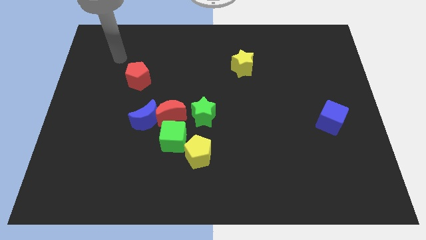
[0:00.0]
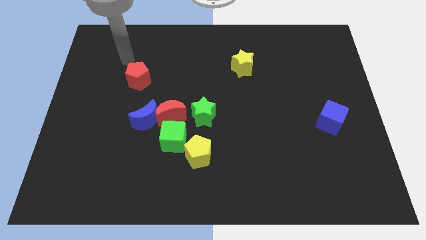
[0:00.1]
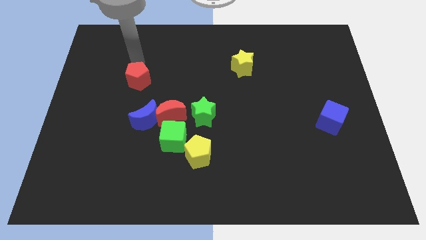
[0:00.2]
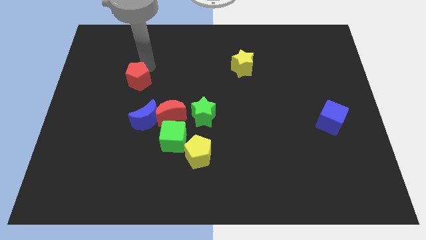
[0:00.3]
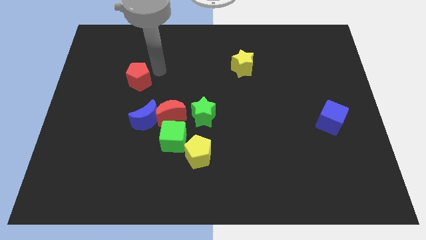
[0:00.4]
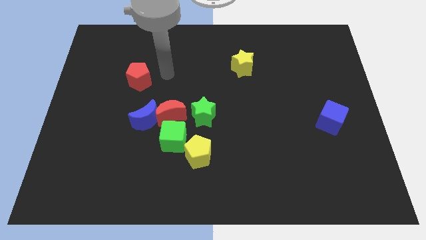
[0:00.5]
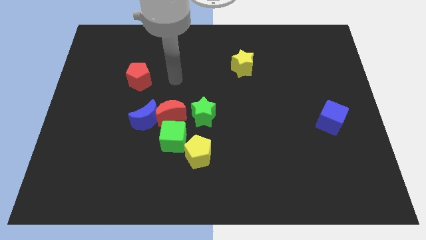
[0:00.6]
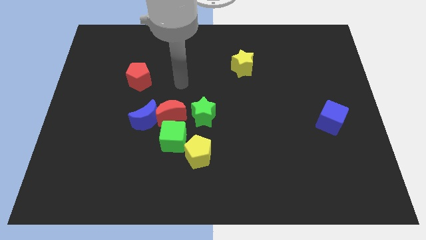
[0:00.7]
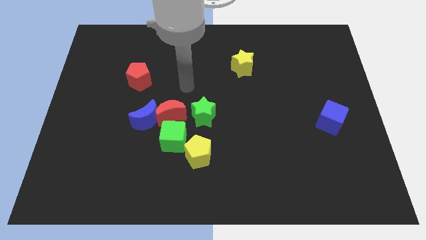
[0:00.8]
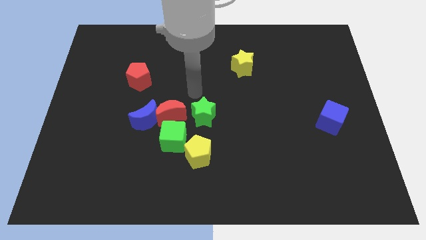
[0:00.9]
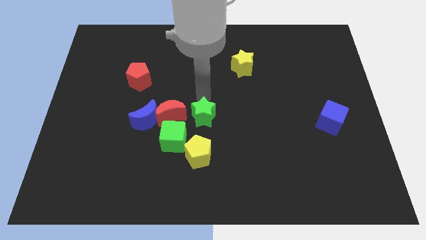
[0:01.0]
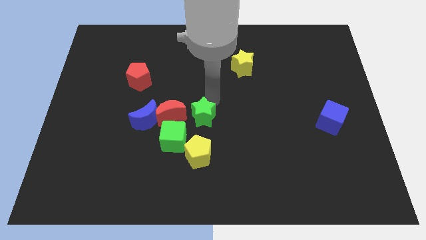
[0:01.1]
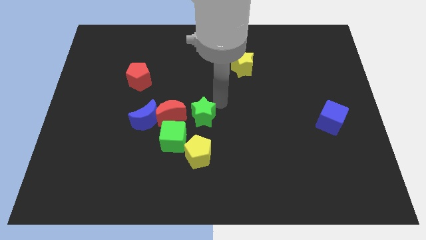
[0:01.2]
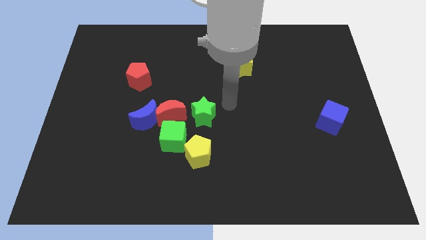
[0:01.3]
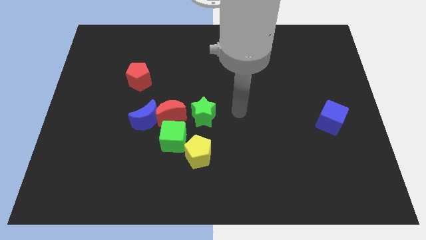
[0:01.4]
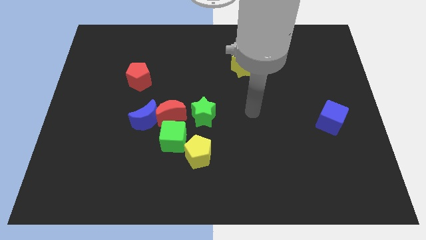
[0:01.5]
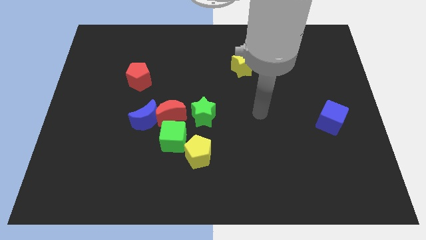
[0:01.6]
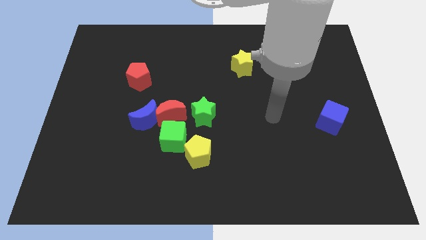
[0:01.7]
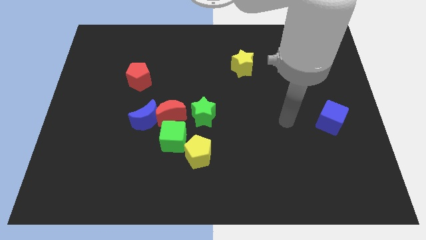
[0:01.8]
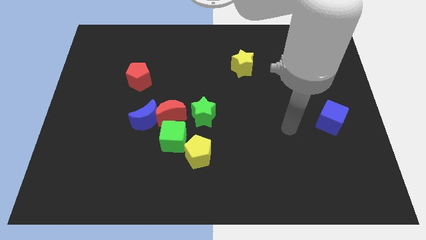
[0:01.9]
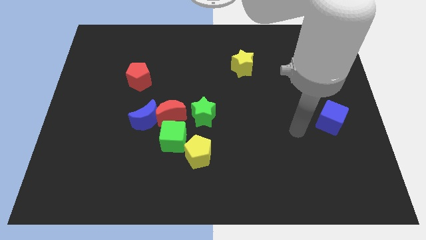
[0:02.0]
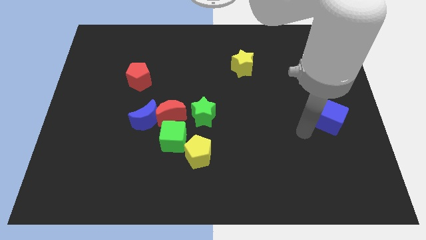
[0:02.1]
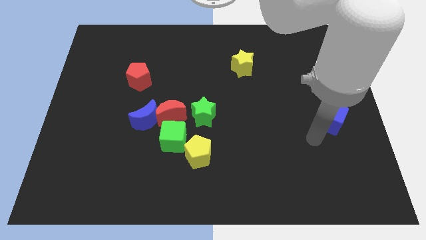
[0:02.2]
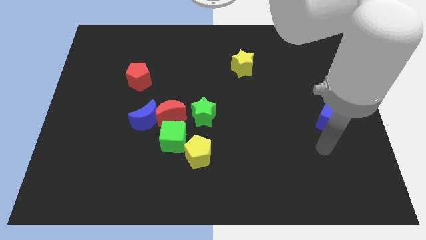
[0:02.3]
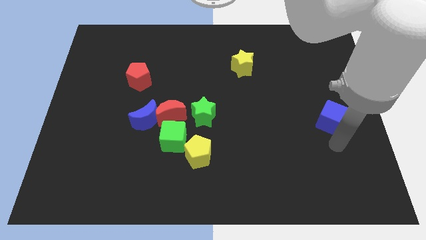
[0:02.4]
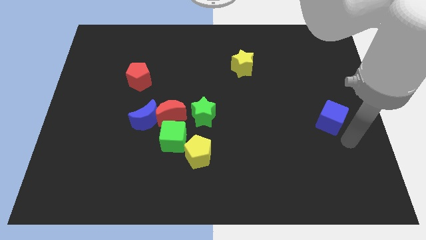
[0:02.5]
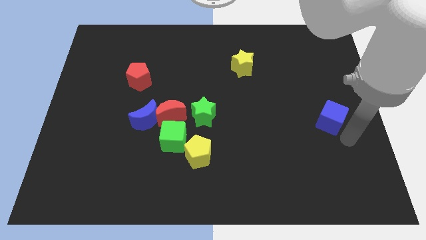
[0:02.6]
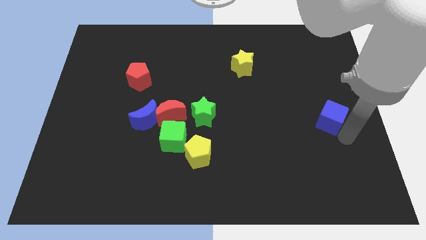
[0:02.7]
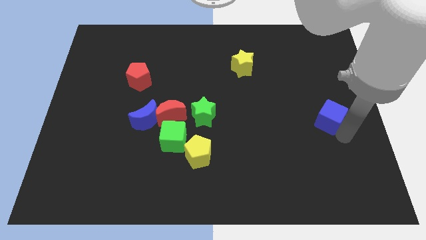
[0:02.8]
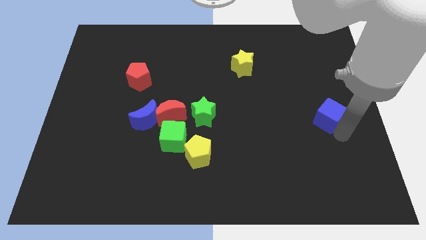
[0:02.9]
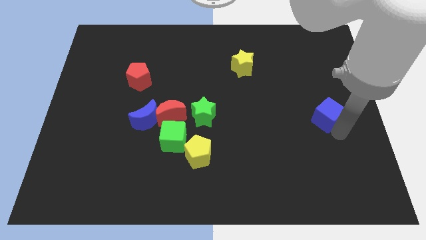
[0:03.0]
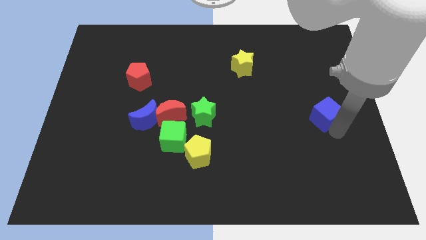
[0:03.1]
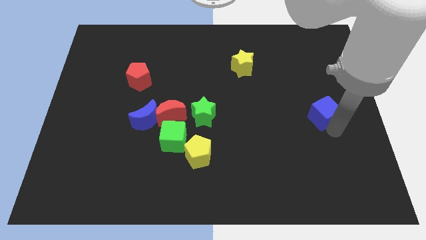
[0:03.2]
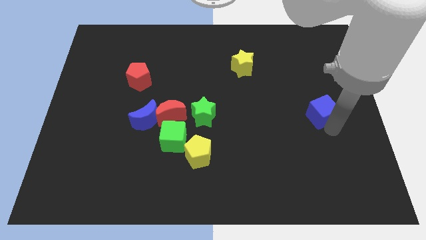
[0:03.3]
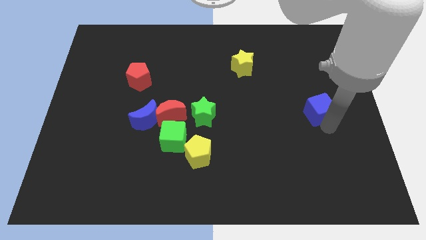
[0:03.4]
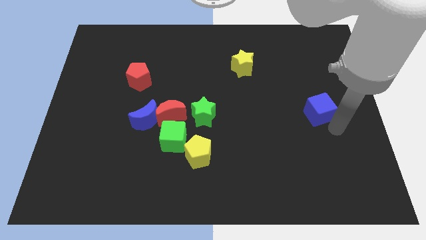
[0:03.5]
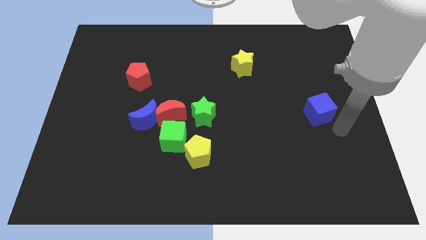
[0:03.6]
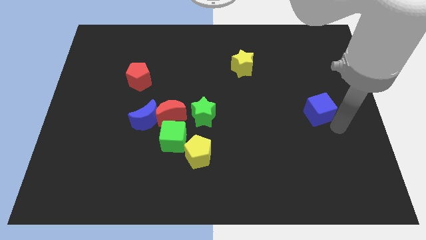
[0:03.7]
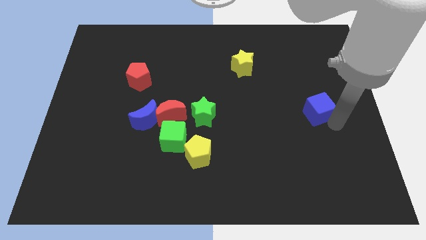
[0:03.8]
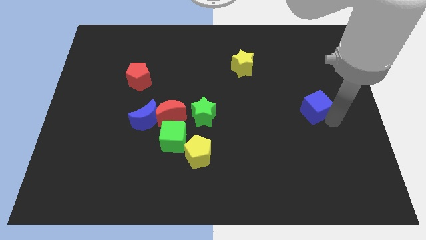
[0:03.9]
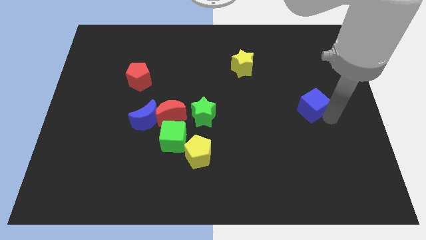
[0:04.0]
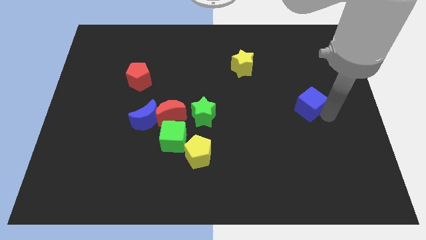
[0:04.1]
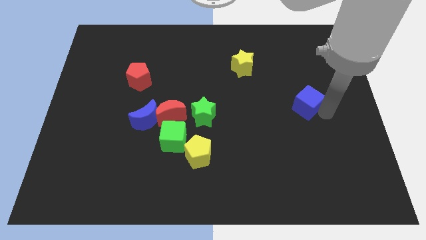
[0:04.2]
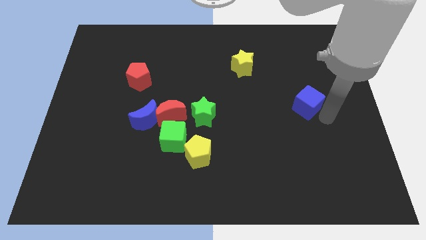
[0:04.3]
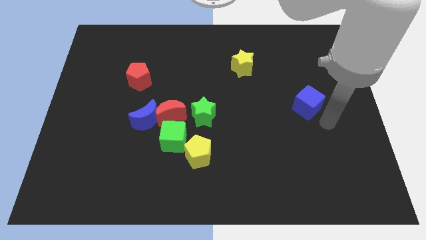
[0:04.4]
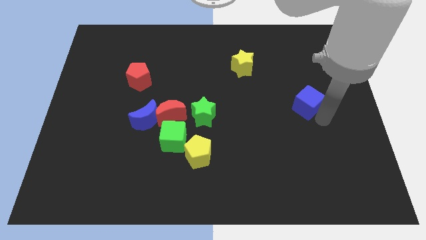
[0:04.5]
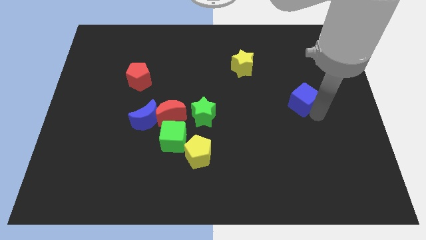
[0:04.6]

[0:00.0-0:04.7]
slightly push the blue cube diagonally upwards and left

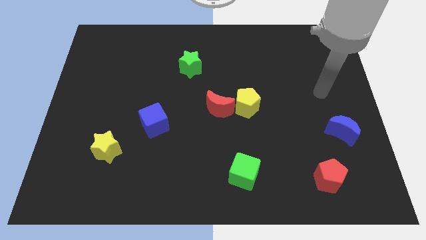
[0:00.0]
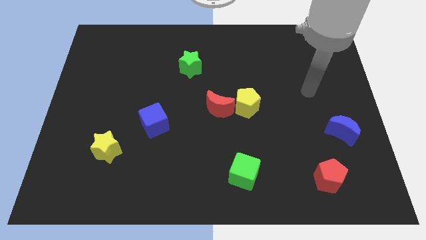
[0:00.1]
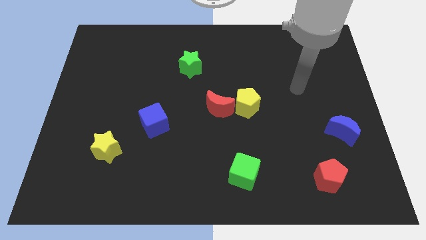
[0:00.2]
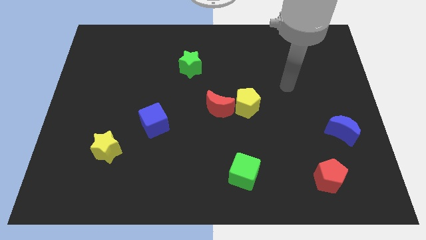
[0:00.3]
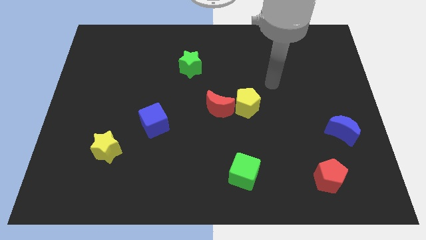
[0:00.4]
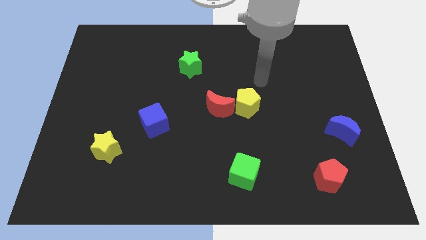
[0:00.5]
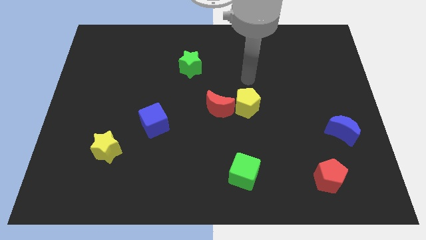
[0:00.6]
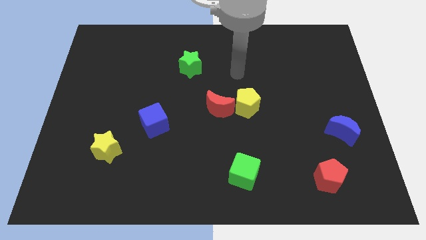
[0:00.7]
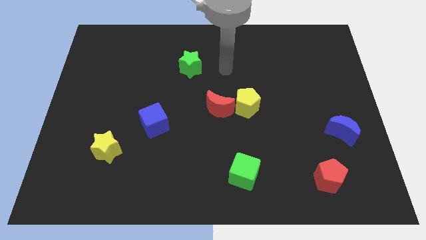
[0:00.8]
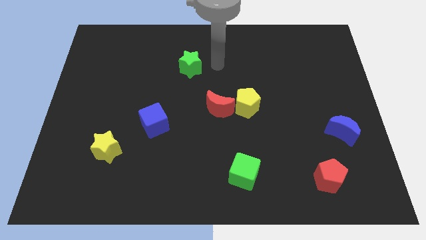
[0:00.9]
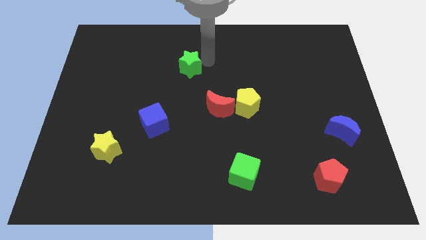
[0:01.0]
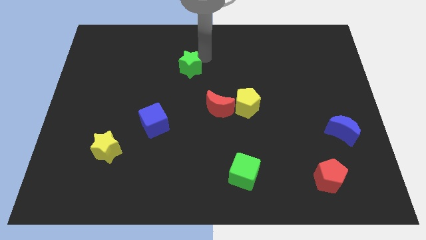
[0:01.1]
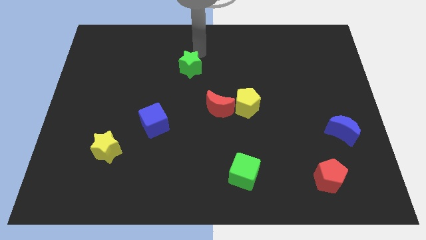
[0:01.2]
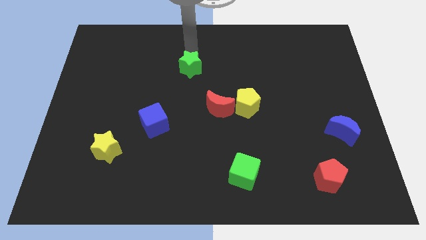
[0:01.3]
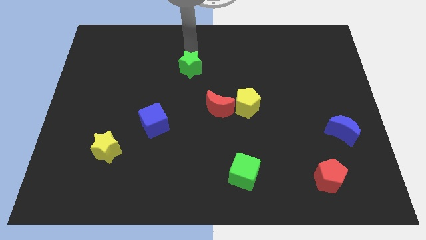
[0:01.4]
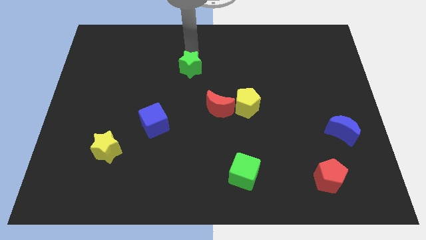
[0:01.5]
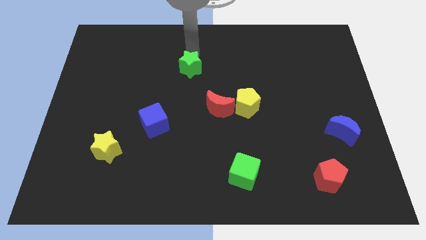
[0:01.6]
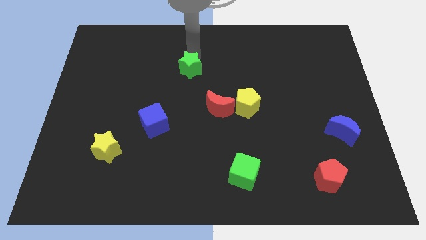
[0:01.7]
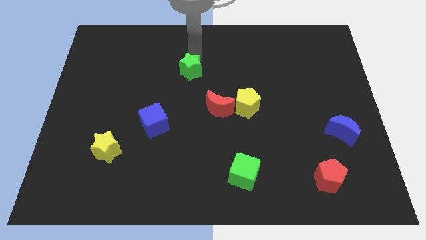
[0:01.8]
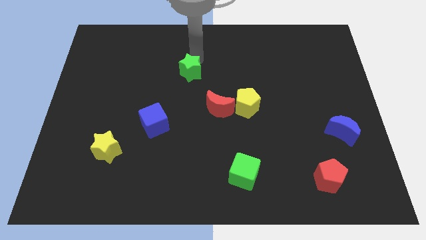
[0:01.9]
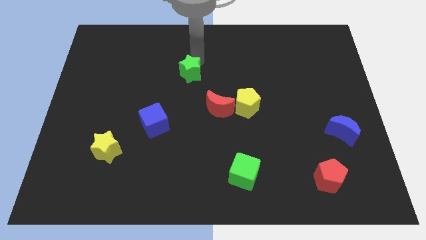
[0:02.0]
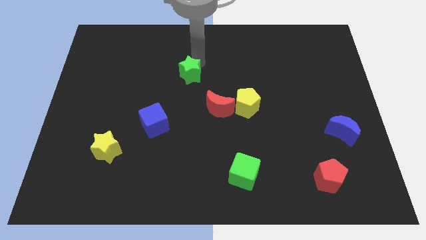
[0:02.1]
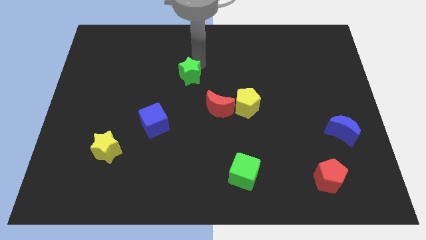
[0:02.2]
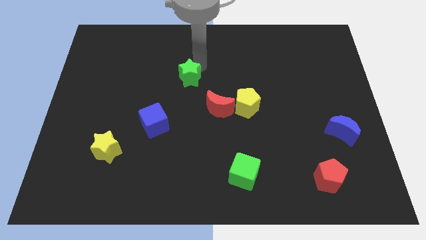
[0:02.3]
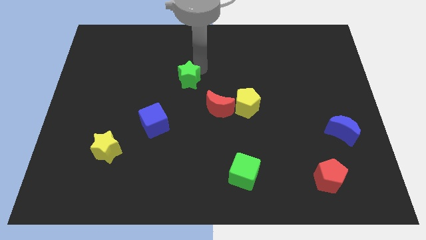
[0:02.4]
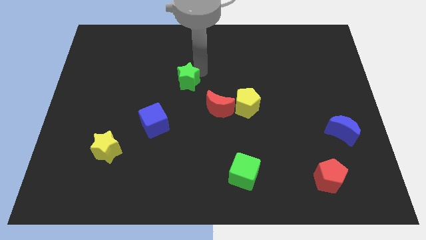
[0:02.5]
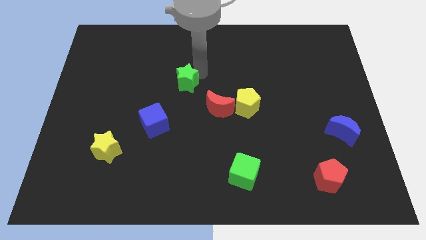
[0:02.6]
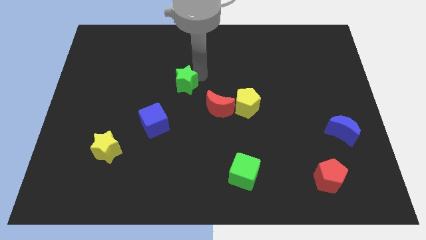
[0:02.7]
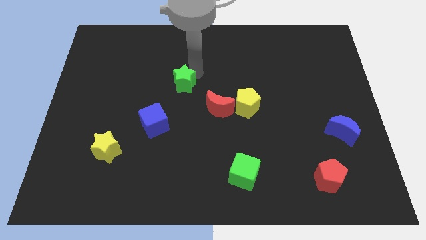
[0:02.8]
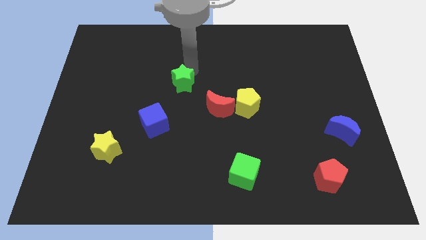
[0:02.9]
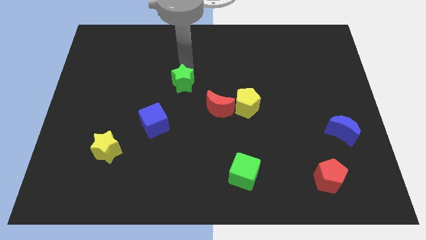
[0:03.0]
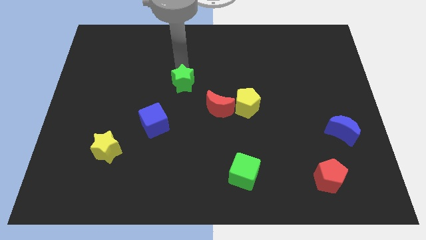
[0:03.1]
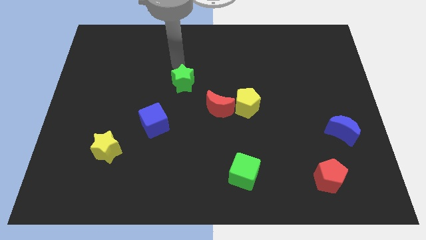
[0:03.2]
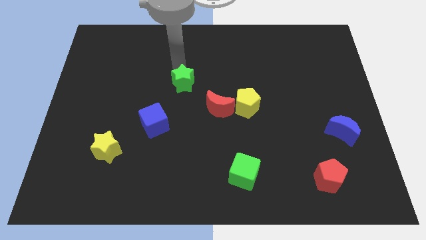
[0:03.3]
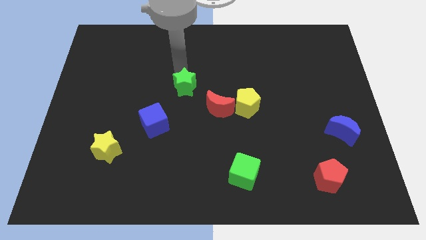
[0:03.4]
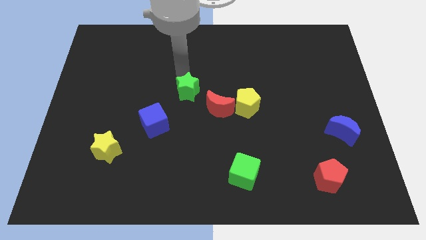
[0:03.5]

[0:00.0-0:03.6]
slightly move the green star downwards
